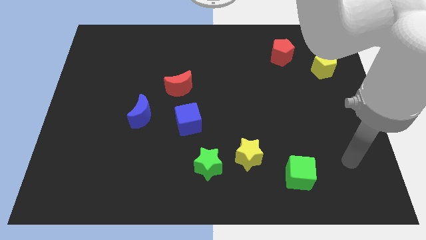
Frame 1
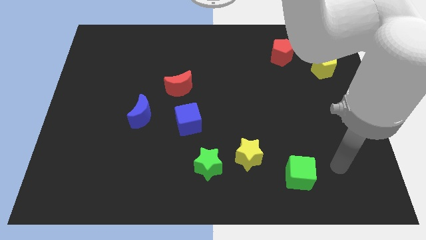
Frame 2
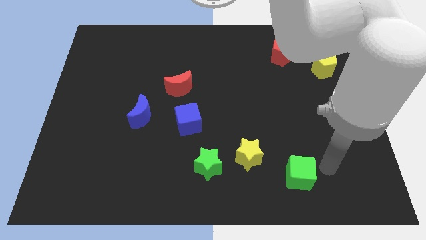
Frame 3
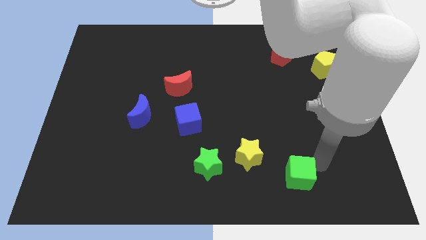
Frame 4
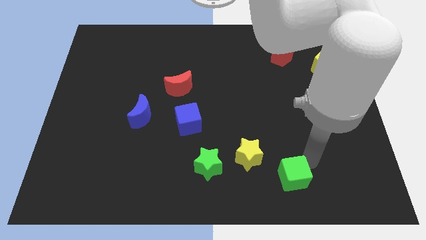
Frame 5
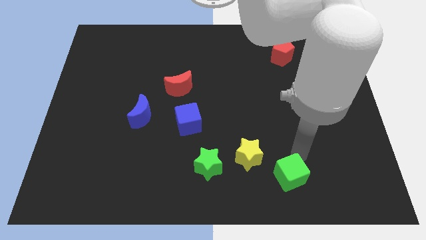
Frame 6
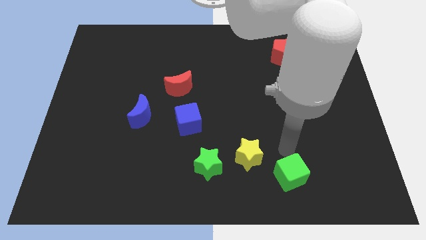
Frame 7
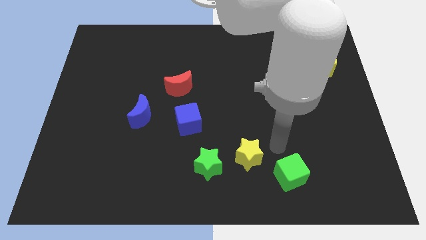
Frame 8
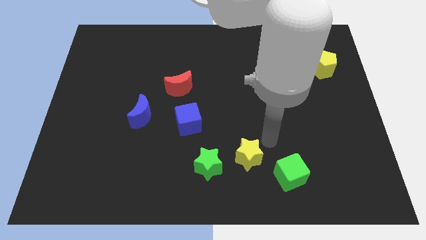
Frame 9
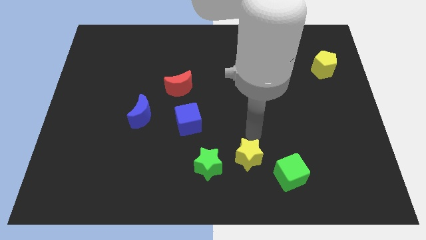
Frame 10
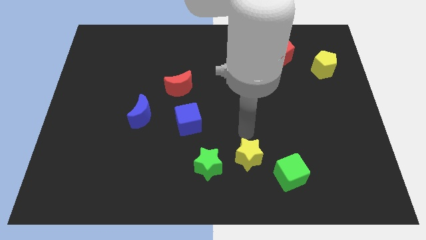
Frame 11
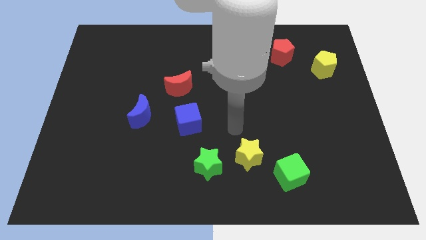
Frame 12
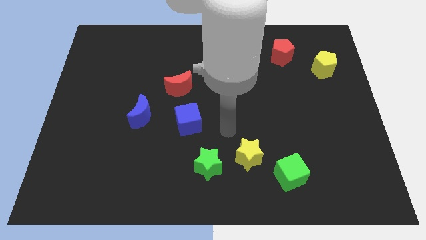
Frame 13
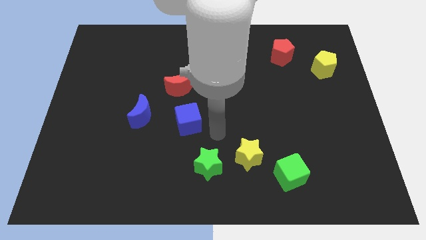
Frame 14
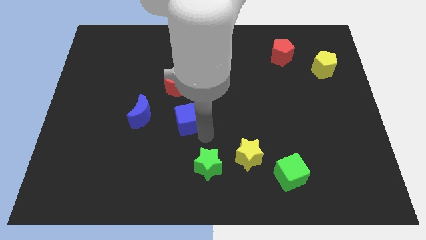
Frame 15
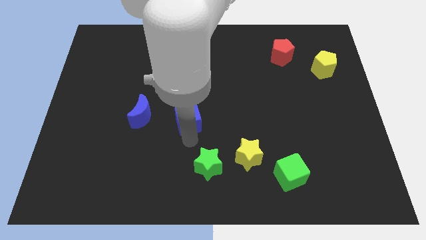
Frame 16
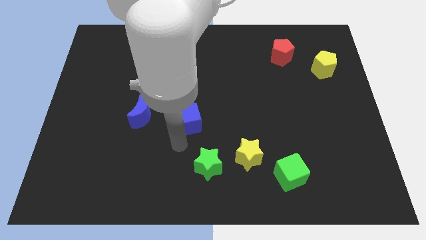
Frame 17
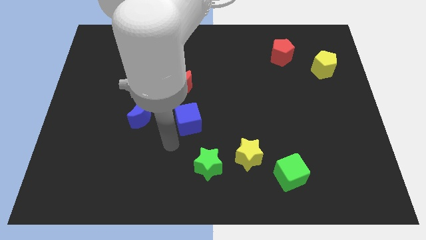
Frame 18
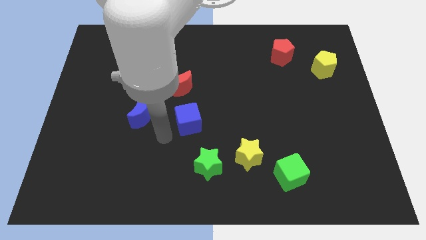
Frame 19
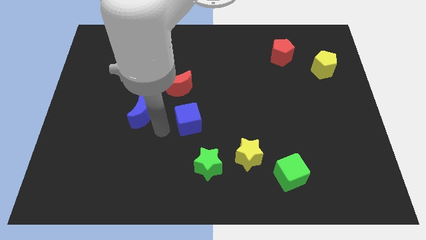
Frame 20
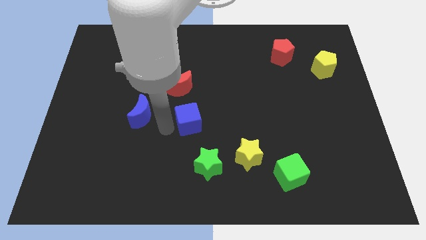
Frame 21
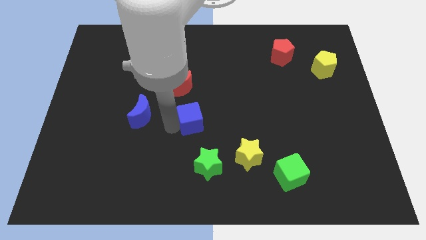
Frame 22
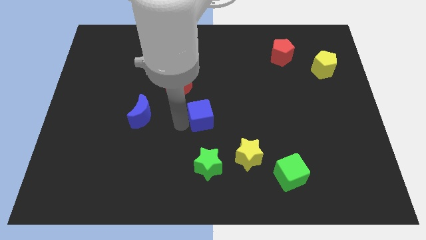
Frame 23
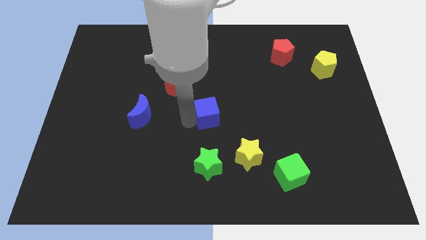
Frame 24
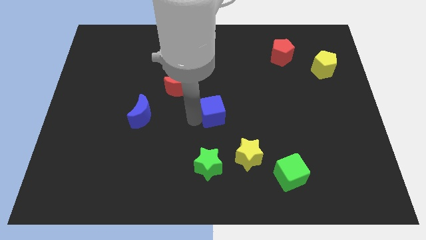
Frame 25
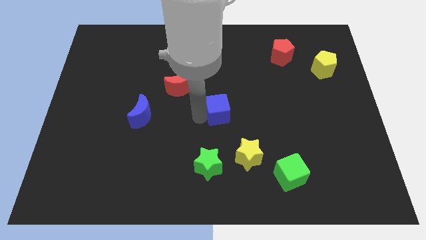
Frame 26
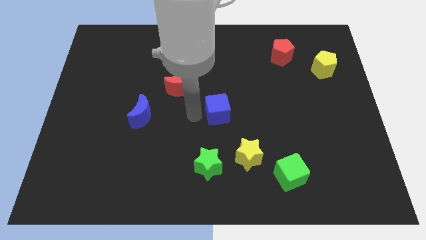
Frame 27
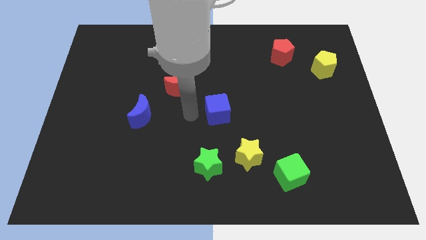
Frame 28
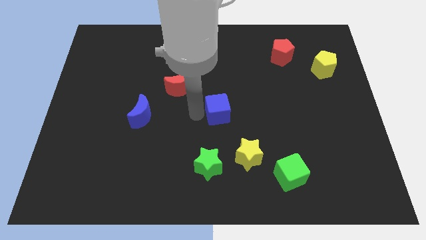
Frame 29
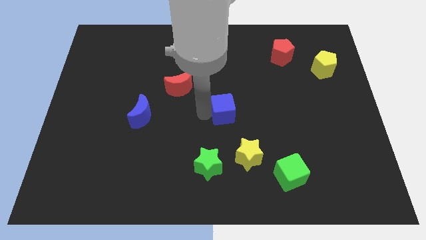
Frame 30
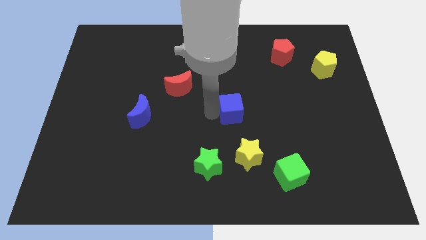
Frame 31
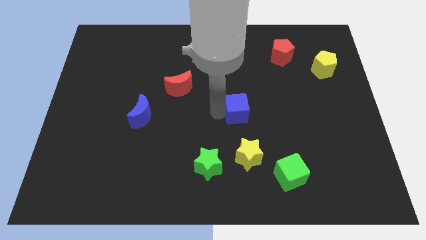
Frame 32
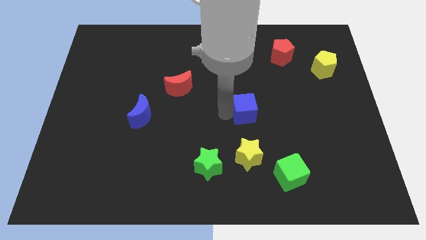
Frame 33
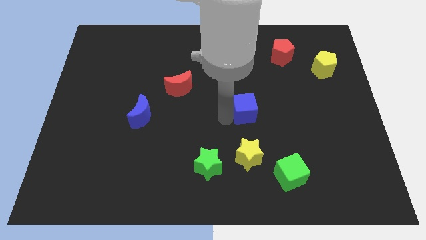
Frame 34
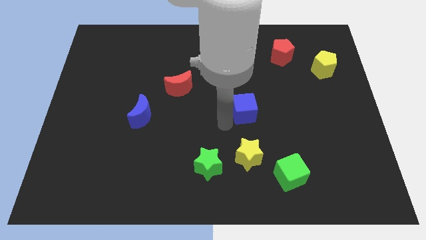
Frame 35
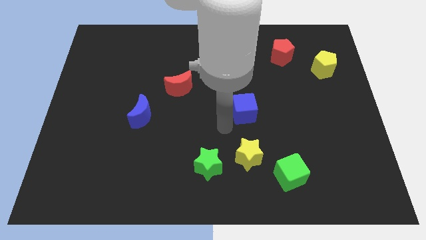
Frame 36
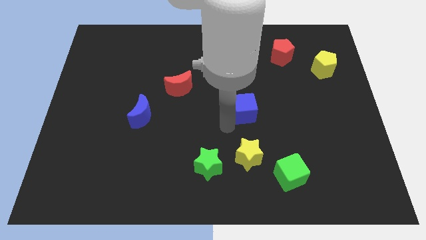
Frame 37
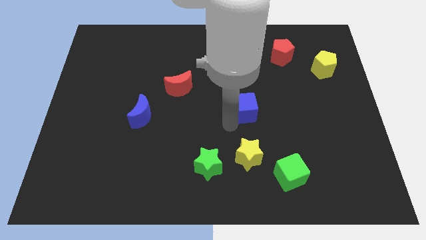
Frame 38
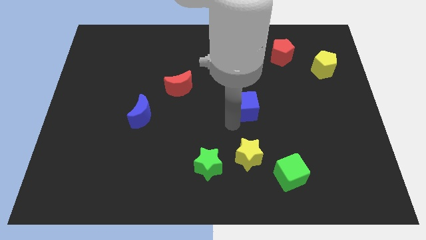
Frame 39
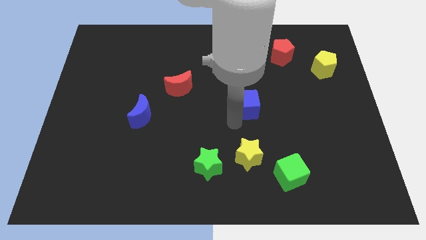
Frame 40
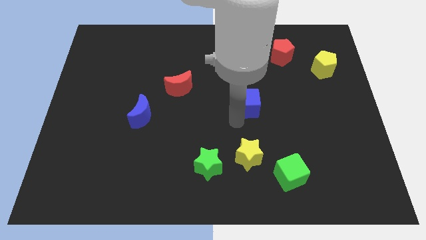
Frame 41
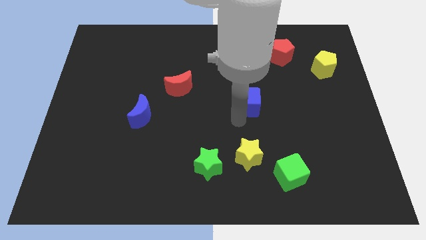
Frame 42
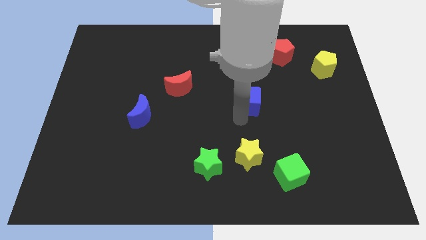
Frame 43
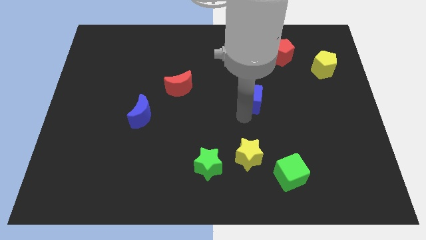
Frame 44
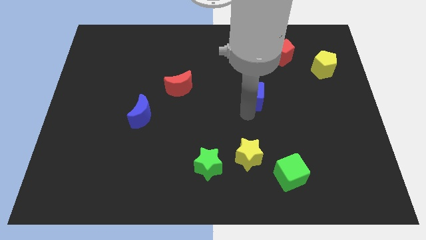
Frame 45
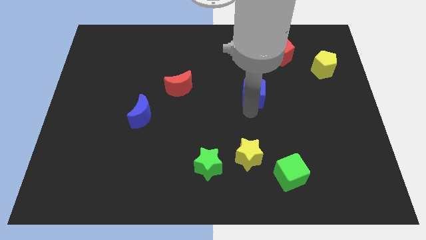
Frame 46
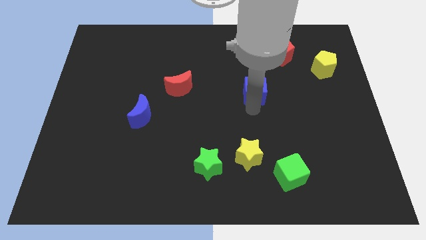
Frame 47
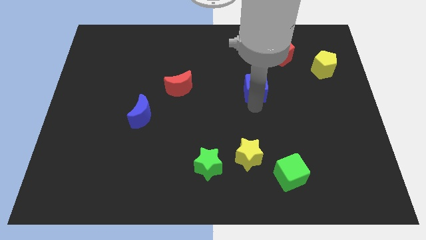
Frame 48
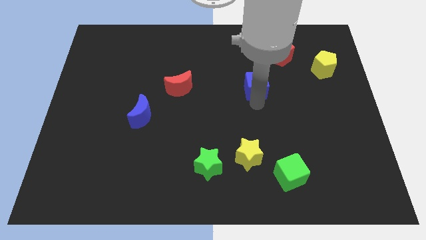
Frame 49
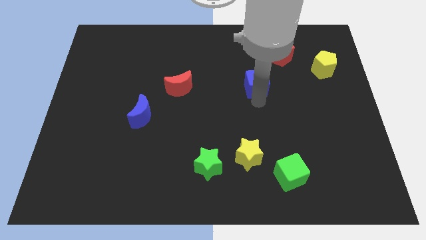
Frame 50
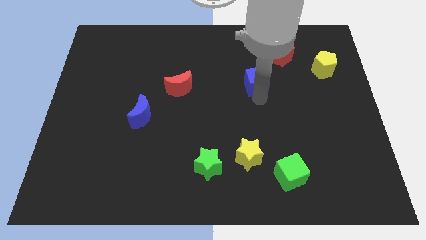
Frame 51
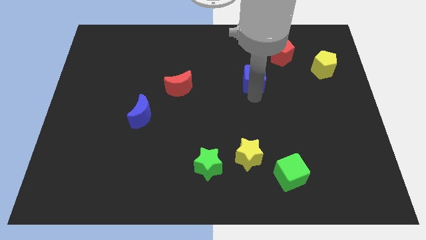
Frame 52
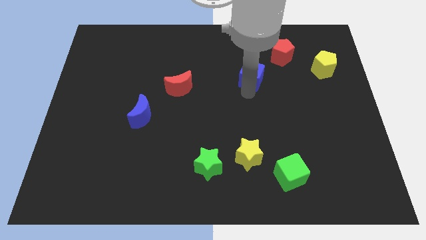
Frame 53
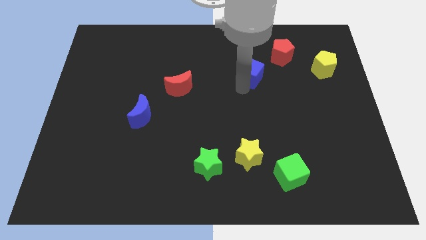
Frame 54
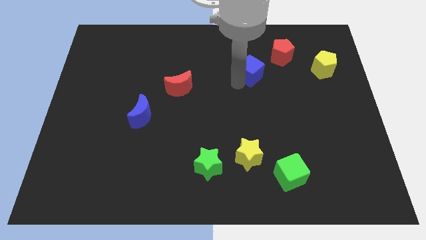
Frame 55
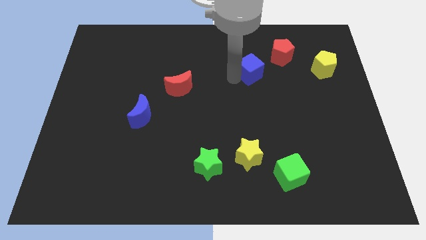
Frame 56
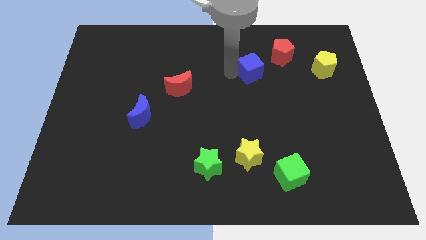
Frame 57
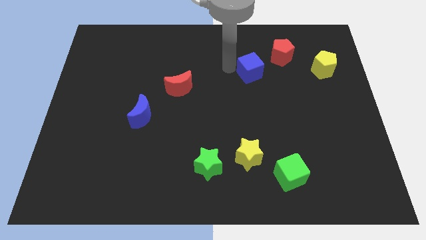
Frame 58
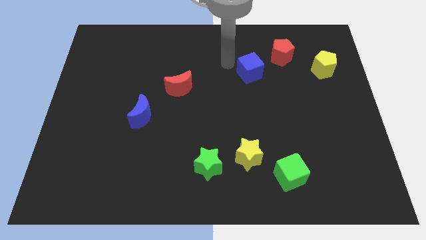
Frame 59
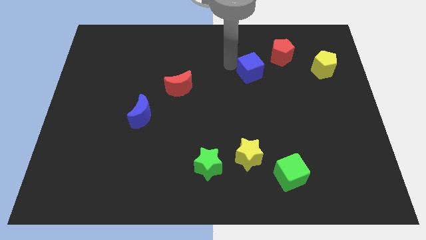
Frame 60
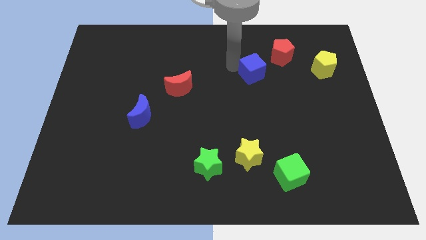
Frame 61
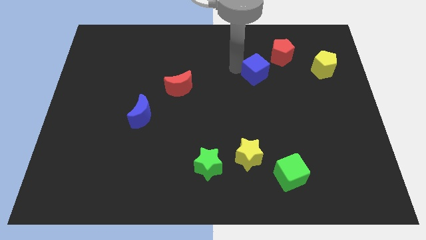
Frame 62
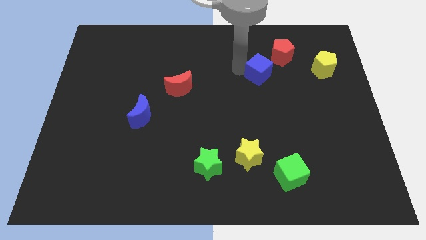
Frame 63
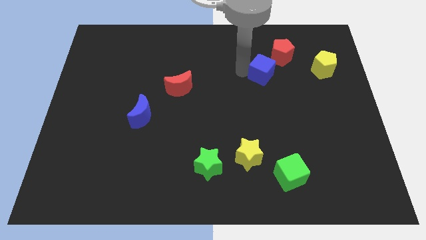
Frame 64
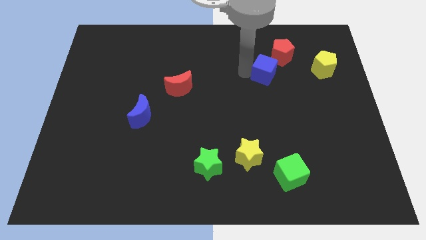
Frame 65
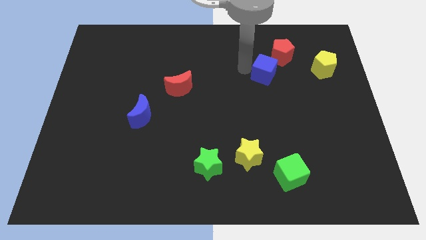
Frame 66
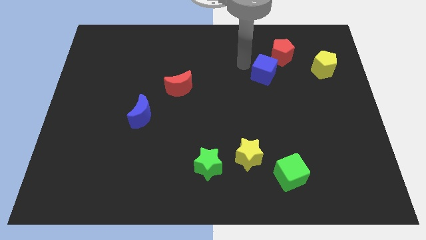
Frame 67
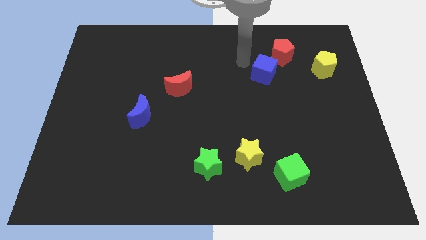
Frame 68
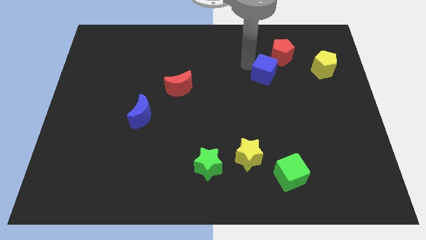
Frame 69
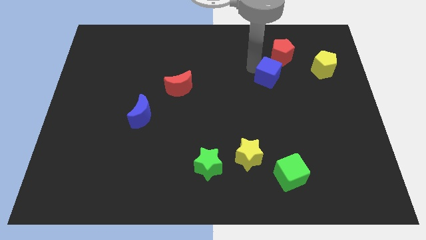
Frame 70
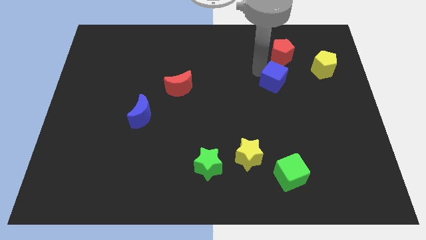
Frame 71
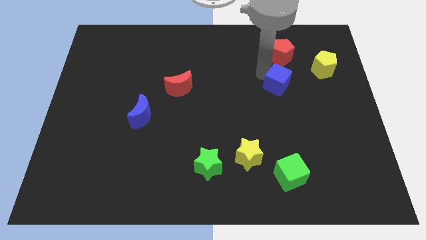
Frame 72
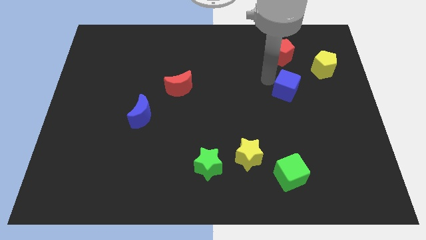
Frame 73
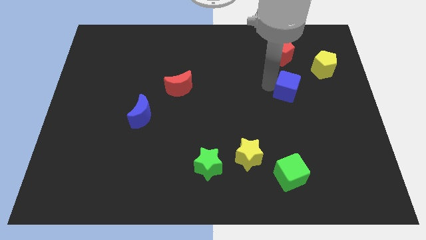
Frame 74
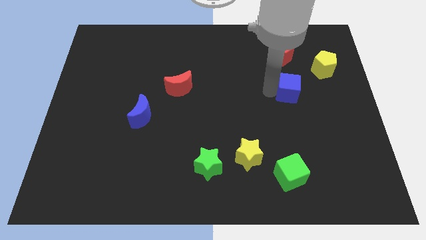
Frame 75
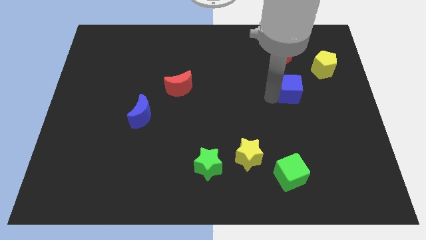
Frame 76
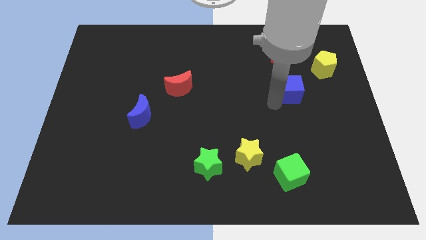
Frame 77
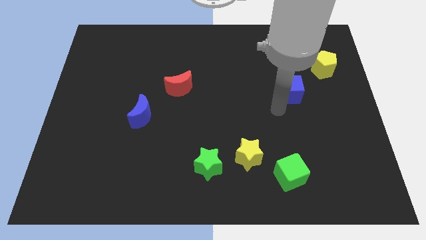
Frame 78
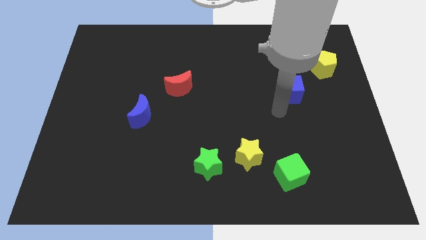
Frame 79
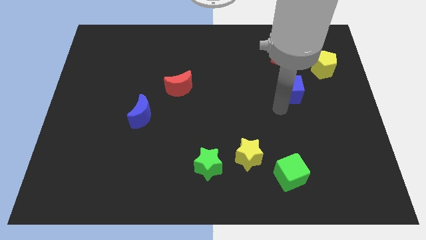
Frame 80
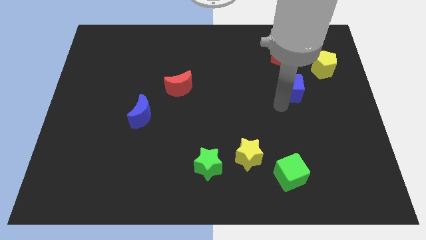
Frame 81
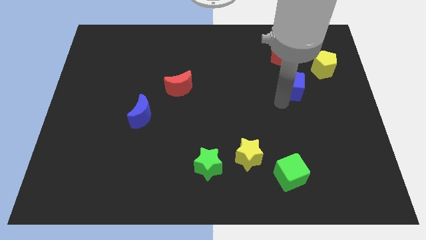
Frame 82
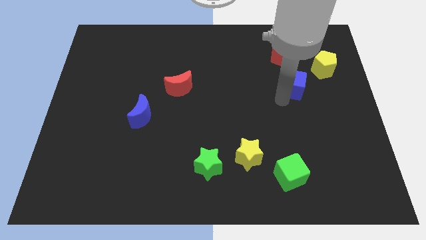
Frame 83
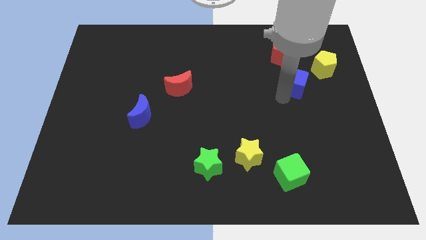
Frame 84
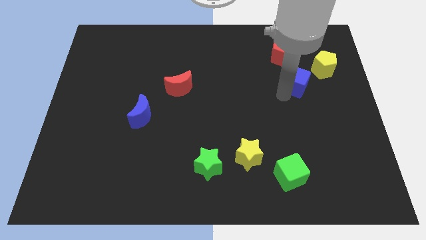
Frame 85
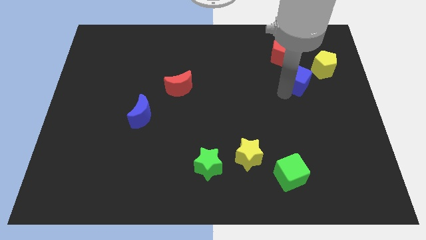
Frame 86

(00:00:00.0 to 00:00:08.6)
push the blue cube to the bottom right side of the red pentagon
